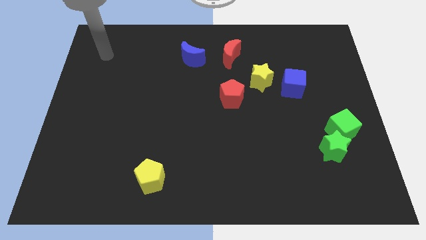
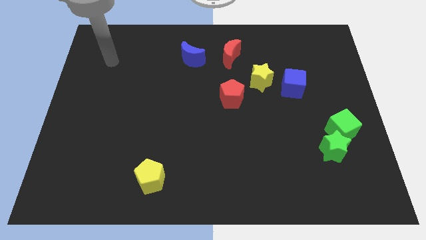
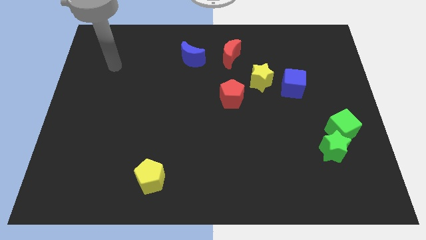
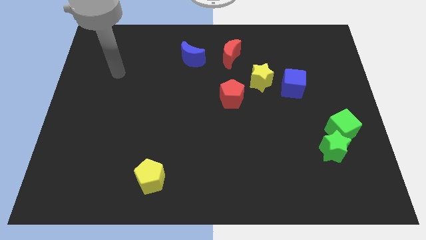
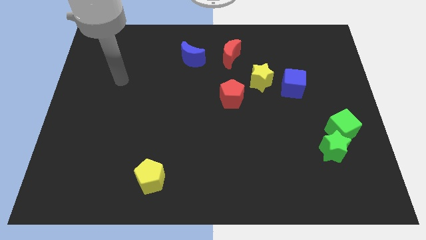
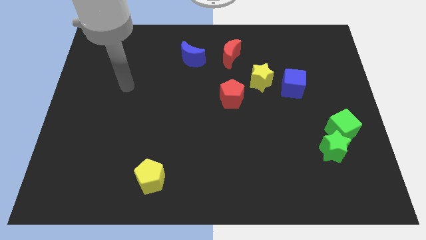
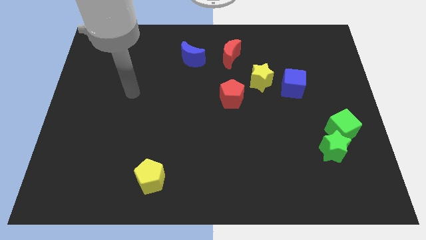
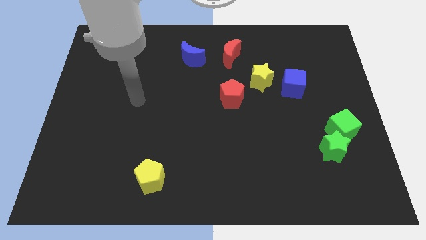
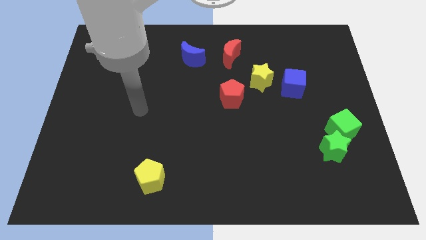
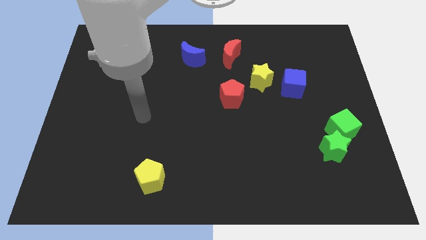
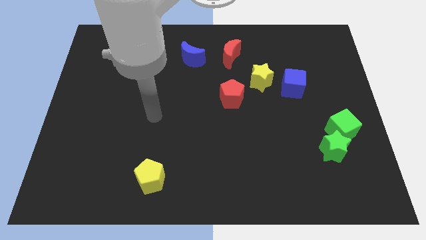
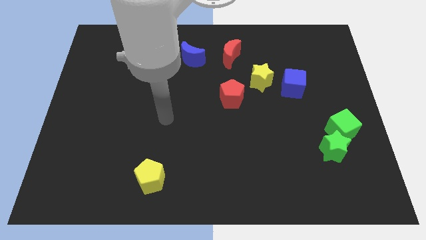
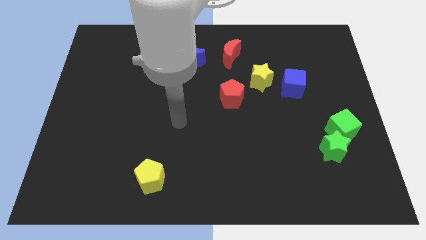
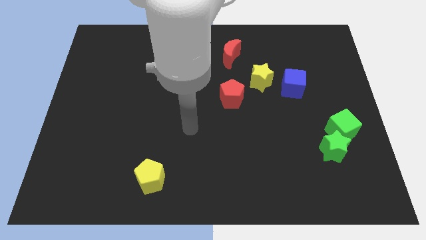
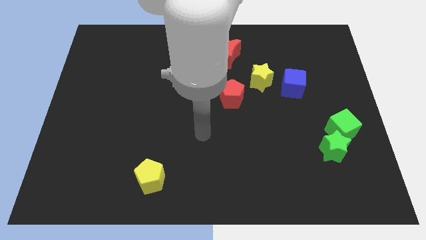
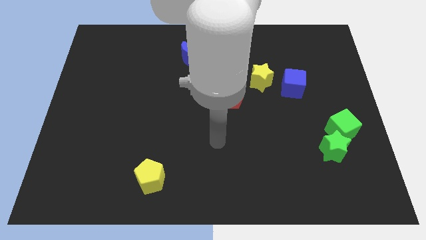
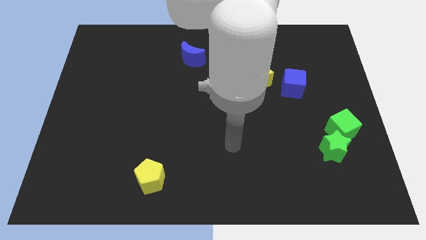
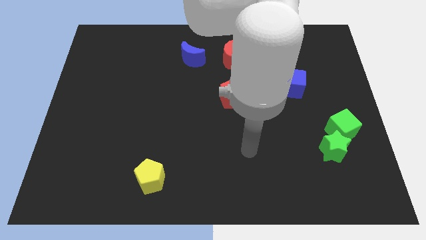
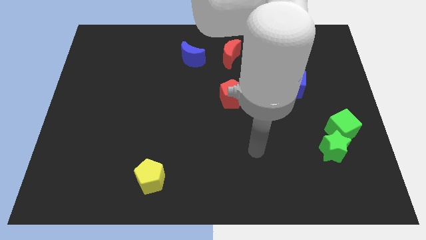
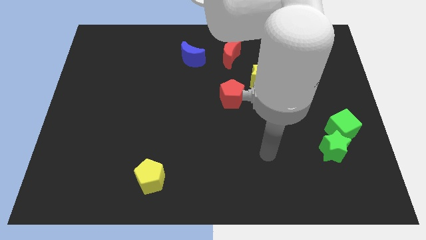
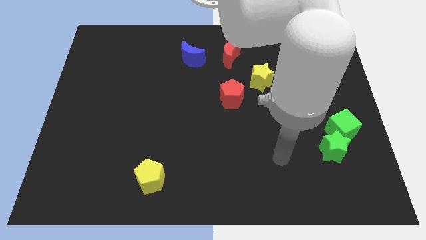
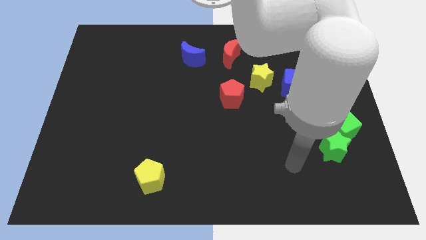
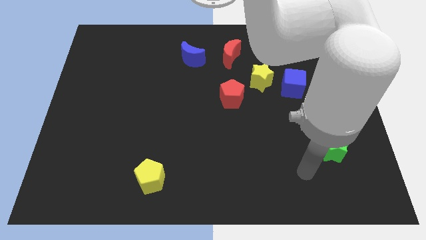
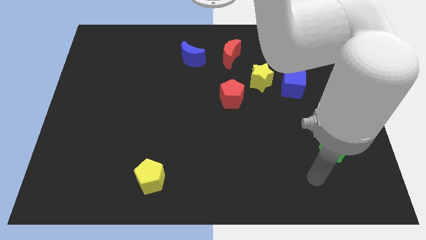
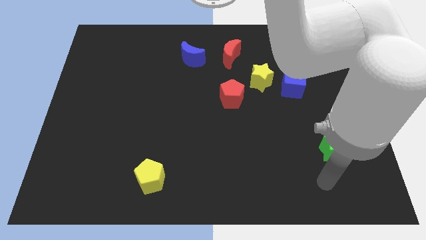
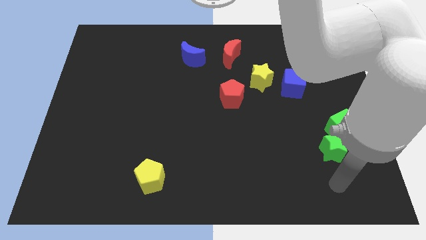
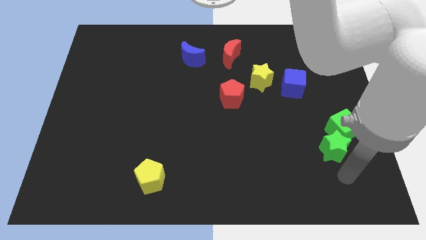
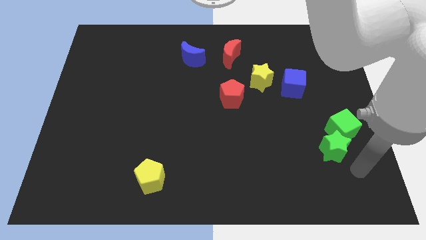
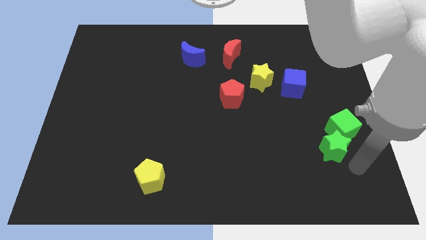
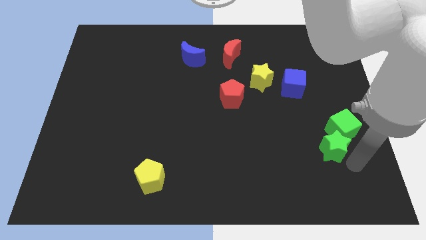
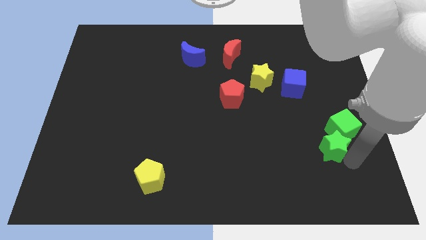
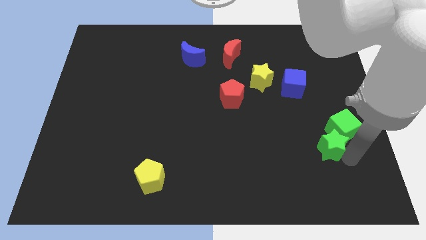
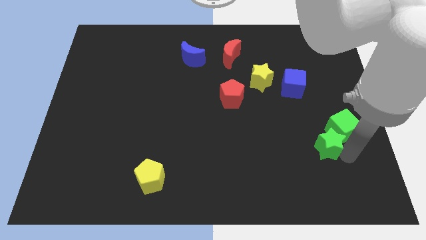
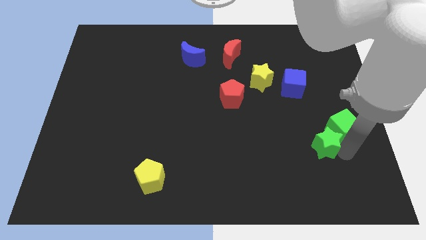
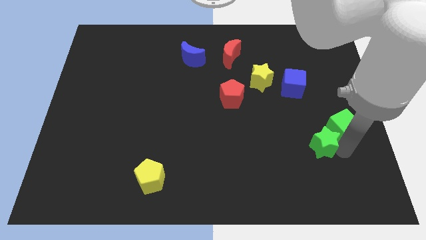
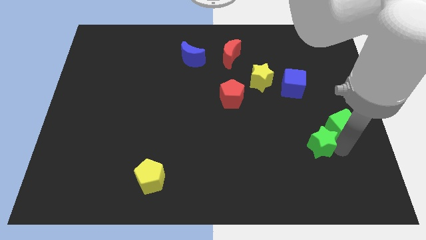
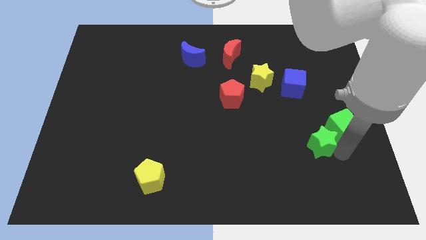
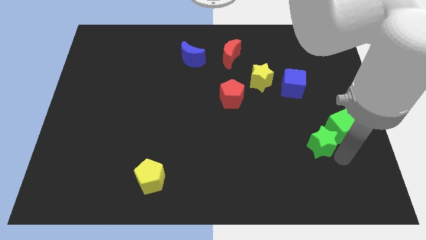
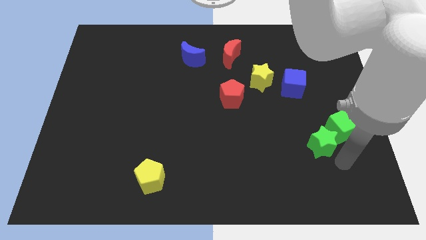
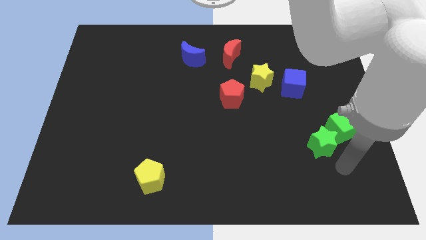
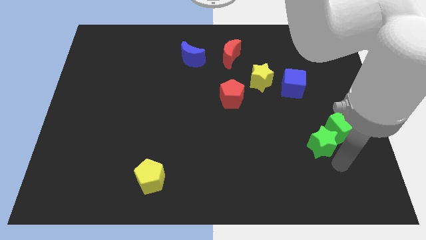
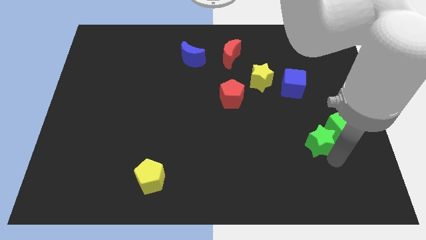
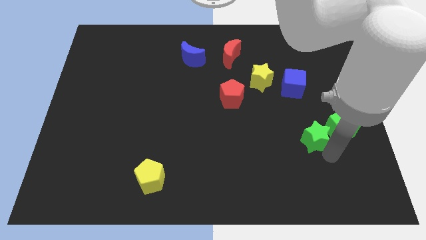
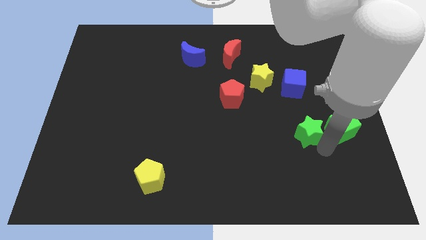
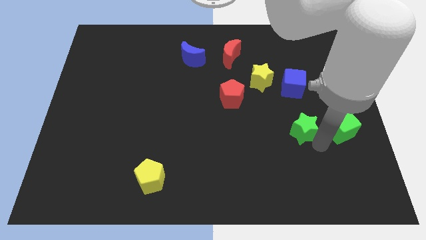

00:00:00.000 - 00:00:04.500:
slide the green star a bit diagonally upwards and to the left

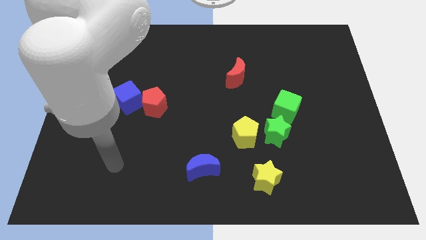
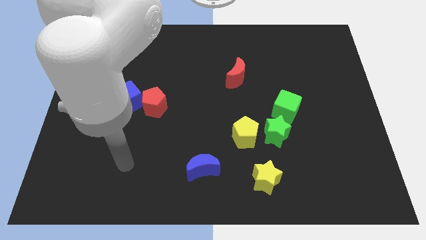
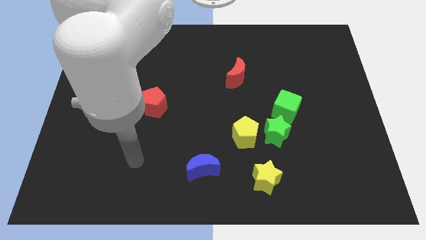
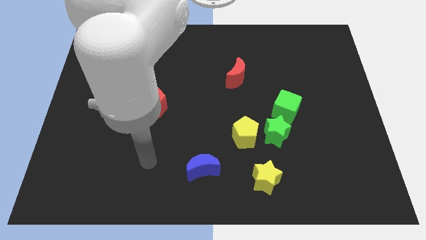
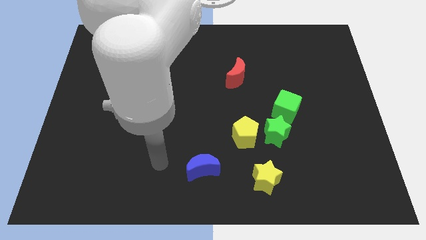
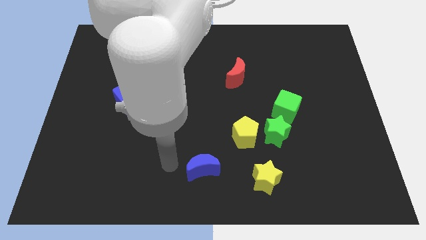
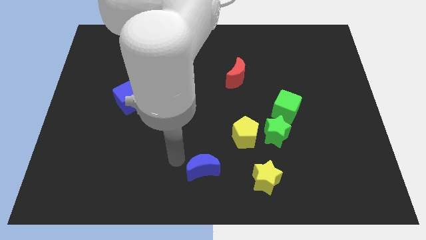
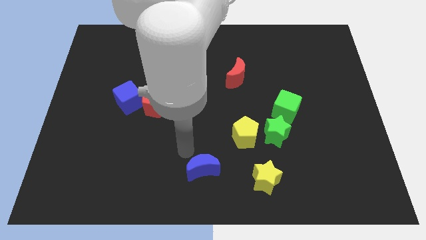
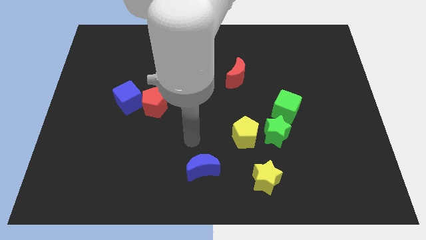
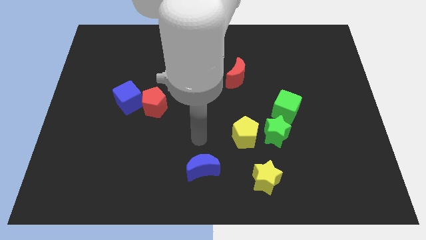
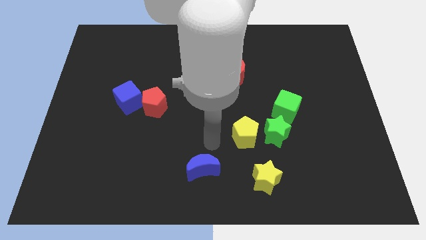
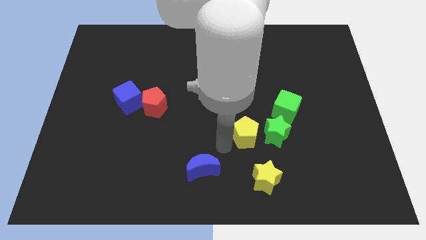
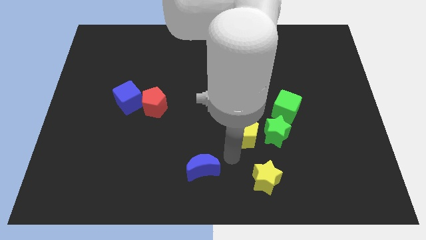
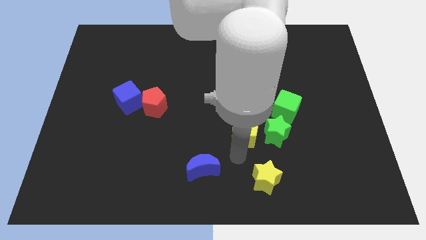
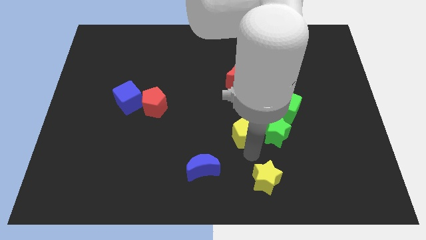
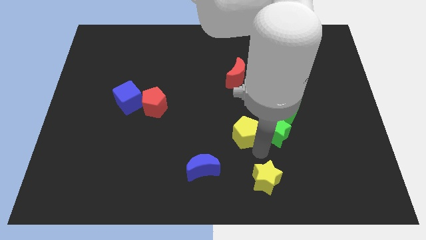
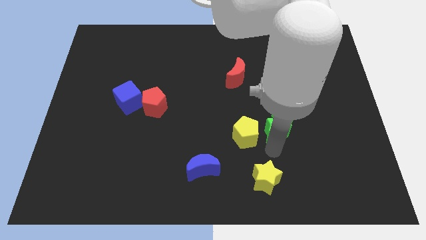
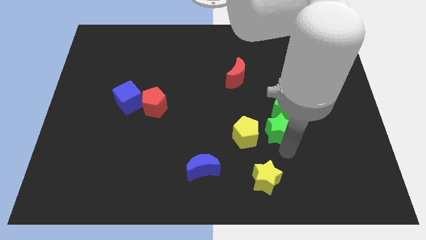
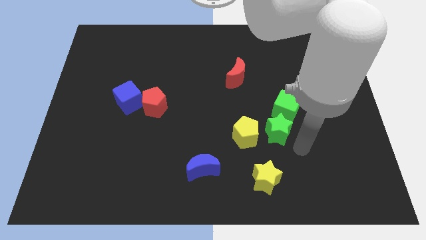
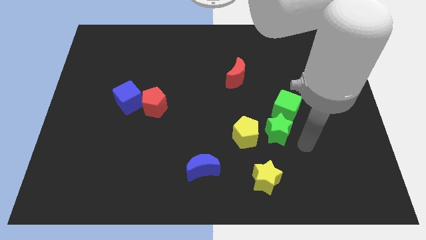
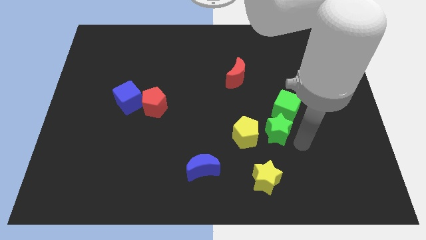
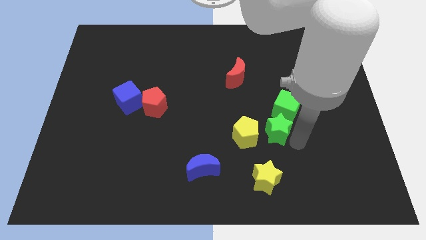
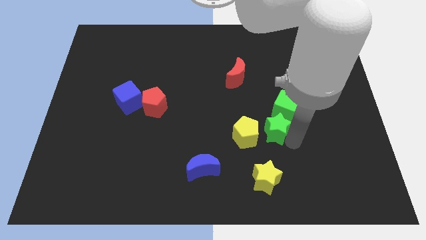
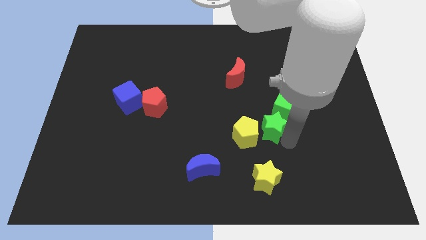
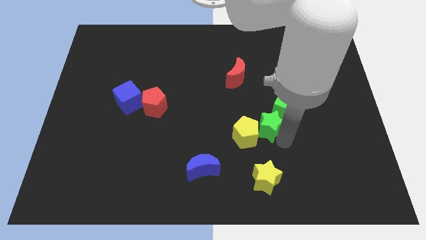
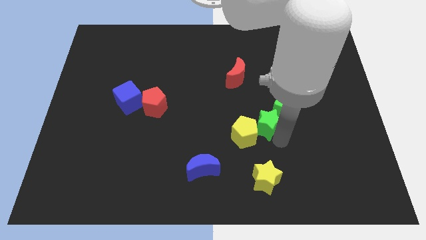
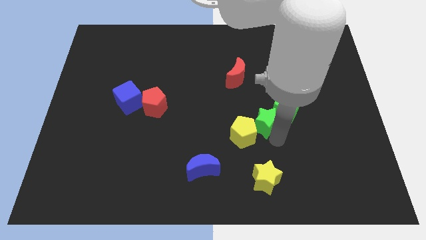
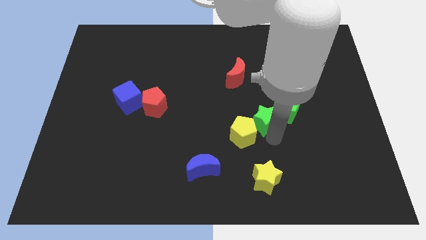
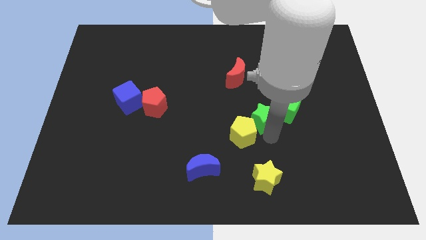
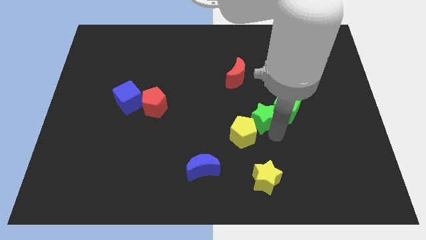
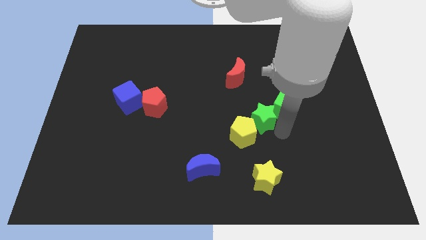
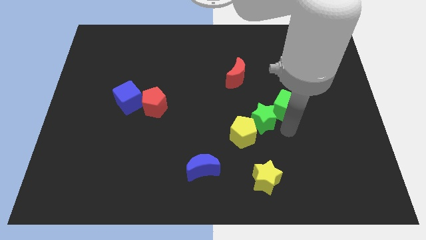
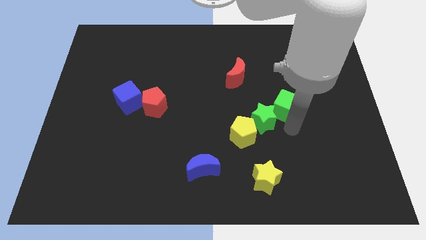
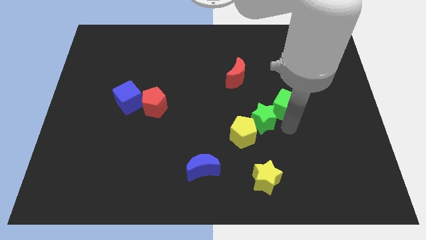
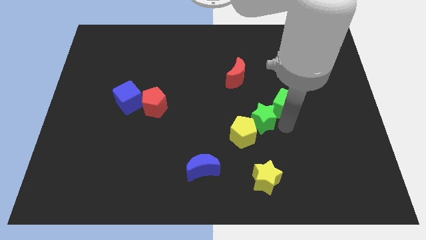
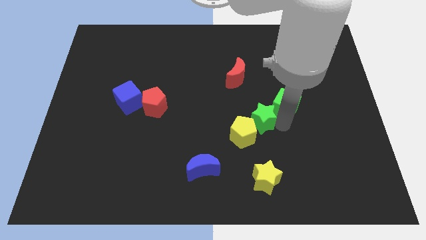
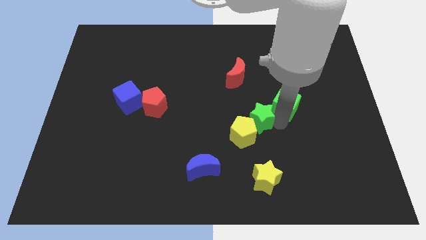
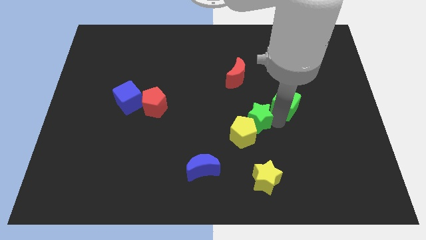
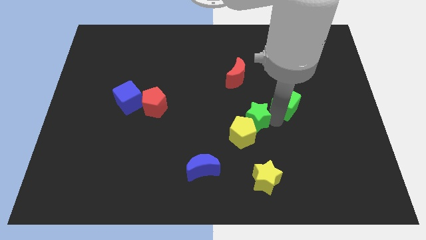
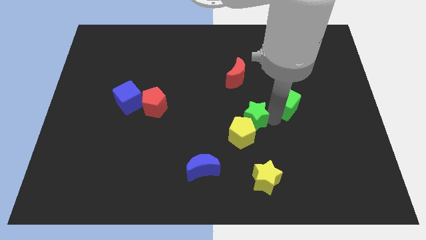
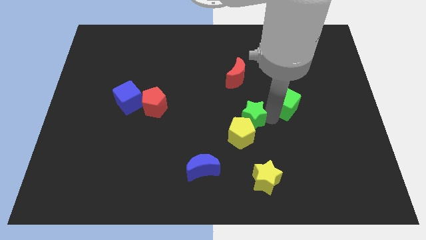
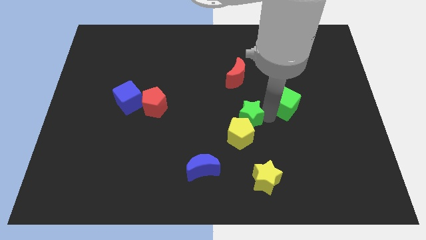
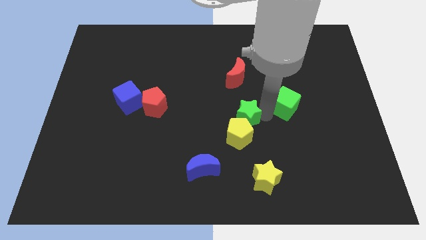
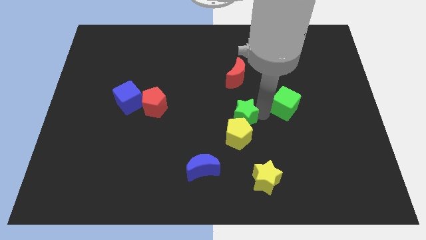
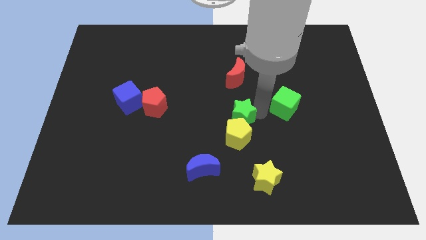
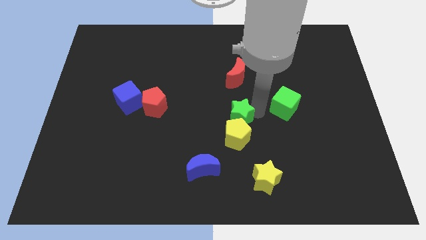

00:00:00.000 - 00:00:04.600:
push the green star left a bit
